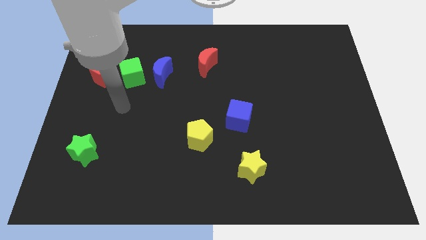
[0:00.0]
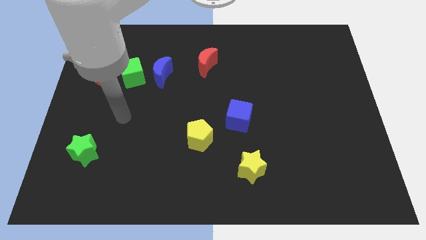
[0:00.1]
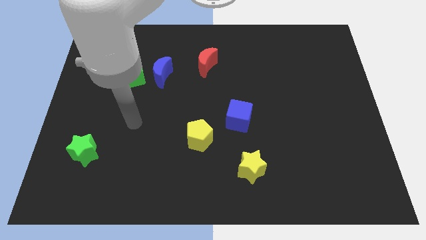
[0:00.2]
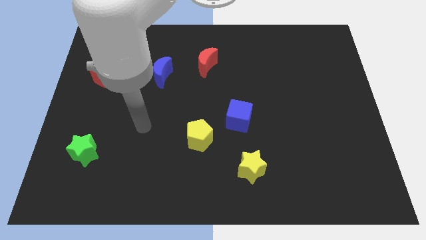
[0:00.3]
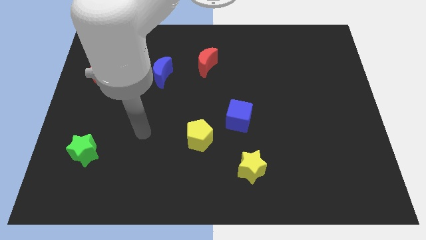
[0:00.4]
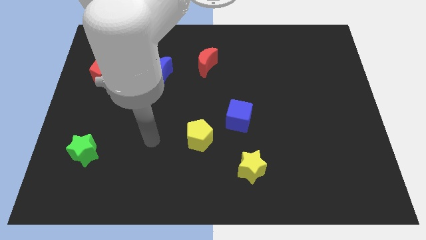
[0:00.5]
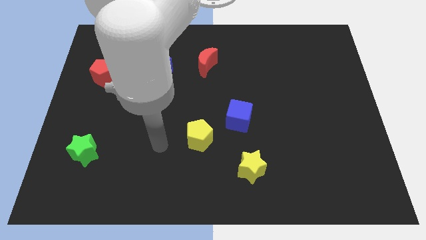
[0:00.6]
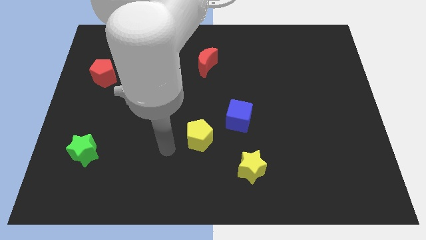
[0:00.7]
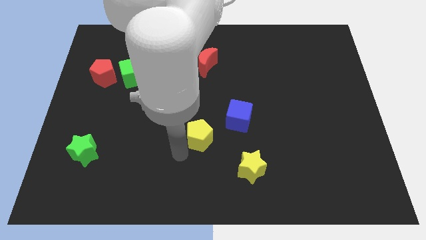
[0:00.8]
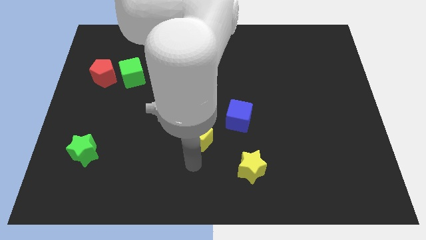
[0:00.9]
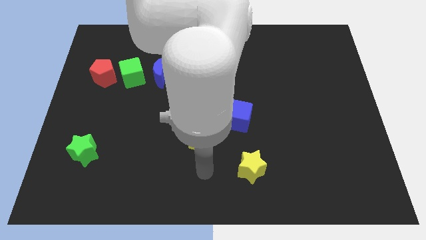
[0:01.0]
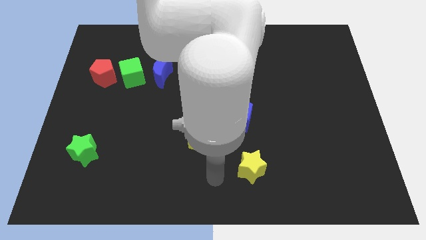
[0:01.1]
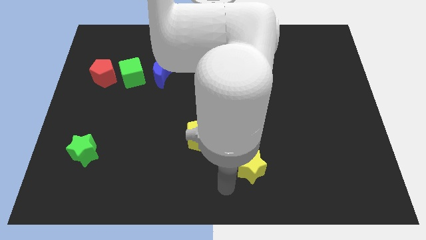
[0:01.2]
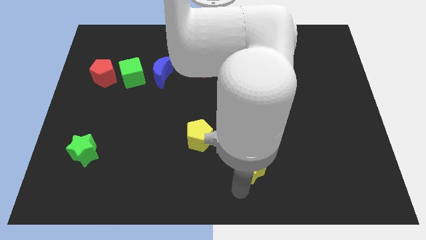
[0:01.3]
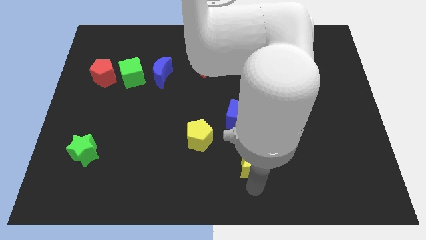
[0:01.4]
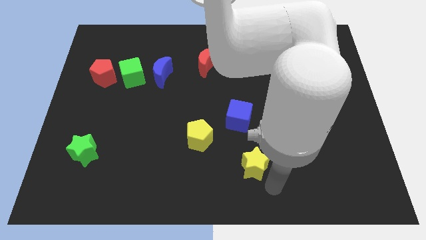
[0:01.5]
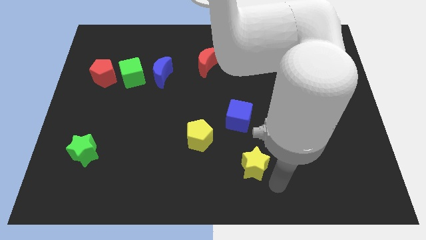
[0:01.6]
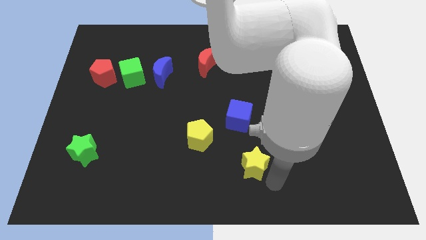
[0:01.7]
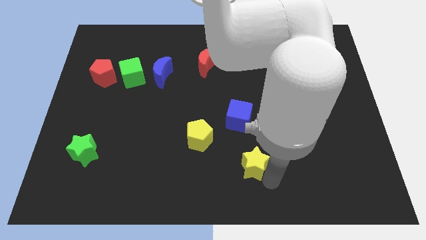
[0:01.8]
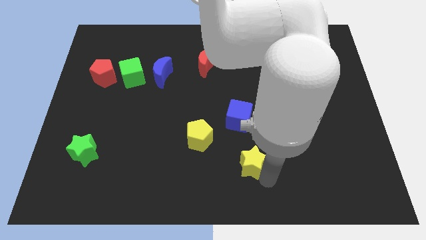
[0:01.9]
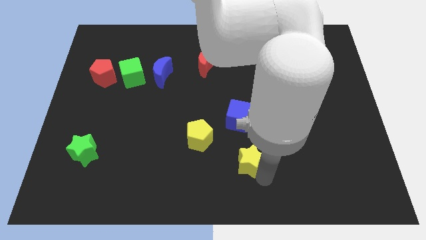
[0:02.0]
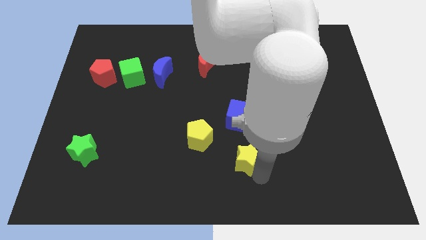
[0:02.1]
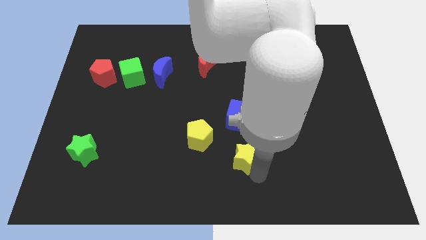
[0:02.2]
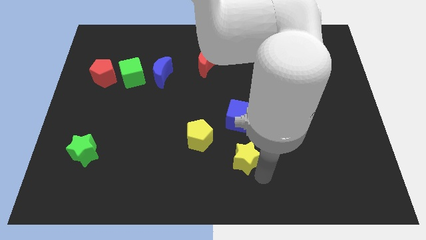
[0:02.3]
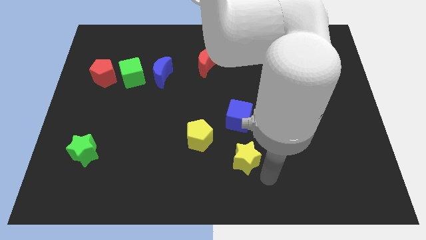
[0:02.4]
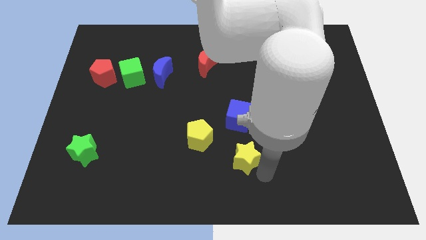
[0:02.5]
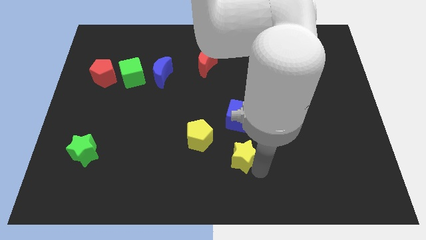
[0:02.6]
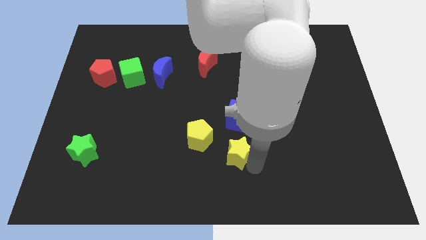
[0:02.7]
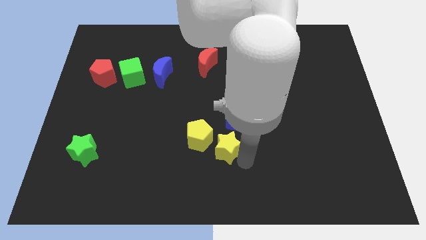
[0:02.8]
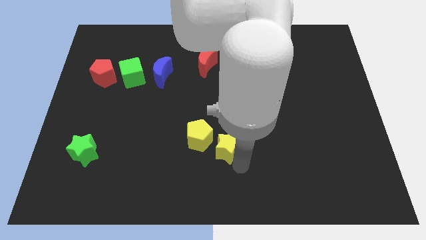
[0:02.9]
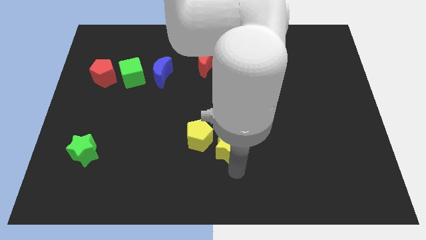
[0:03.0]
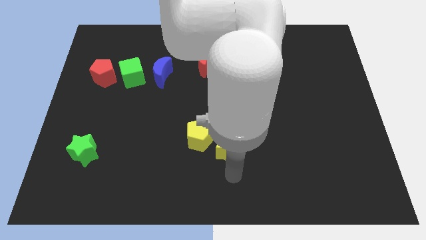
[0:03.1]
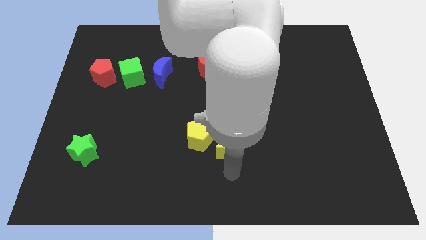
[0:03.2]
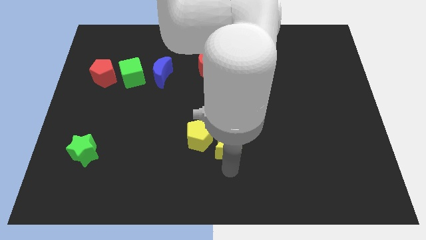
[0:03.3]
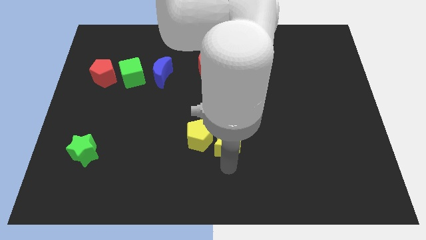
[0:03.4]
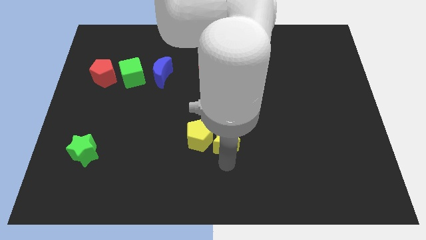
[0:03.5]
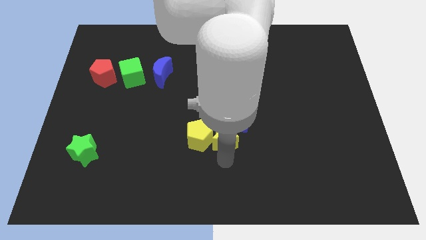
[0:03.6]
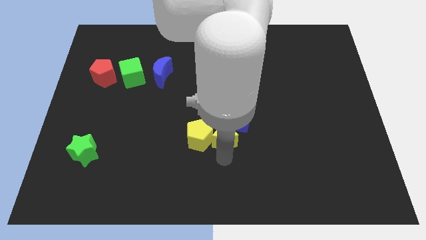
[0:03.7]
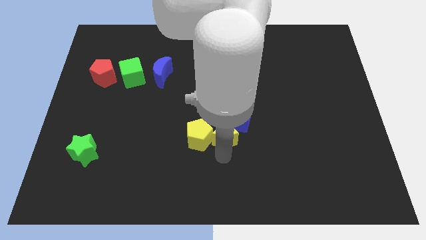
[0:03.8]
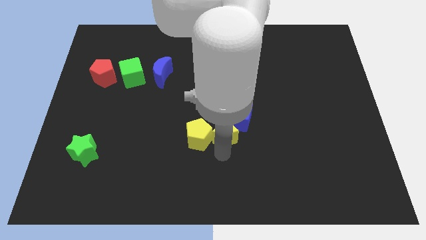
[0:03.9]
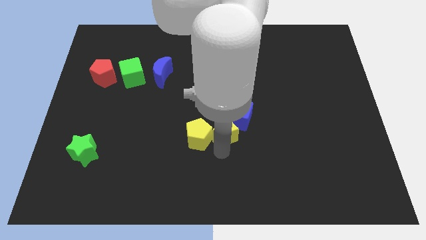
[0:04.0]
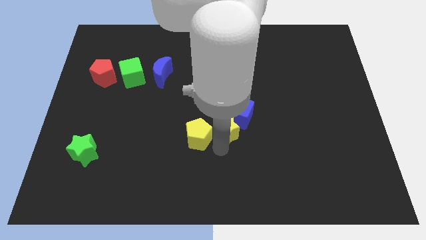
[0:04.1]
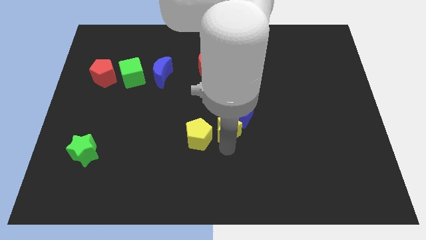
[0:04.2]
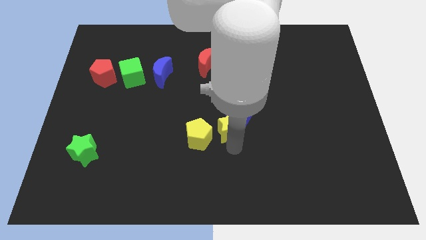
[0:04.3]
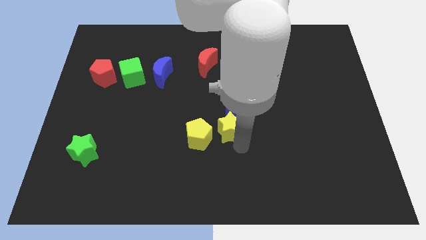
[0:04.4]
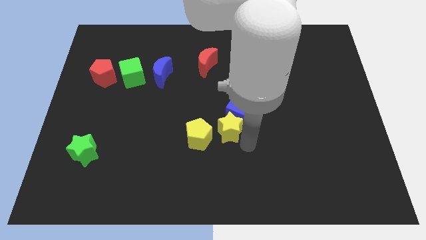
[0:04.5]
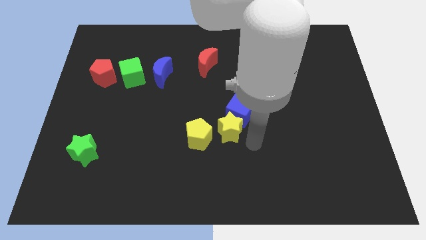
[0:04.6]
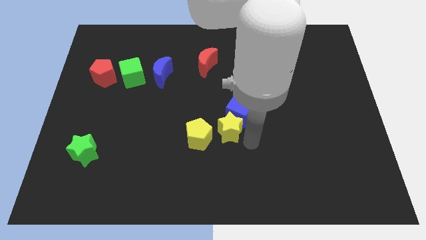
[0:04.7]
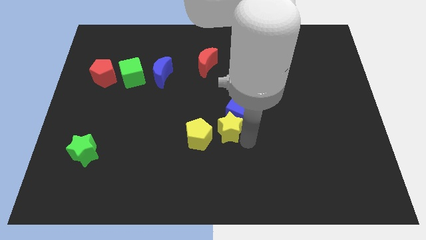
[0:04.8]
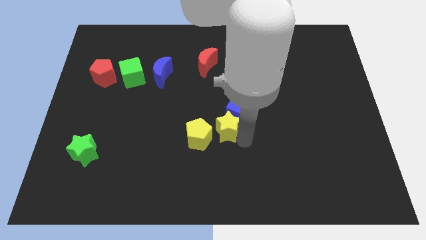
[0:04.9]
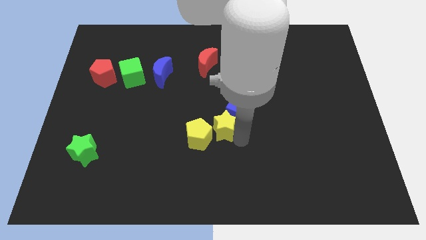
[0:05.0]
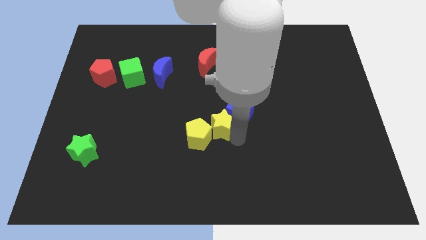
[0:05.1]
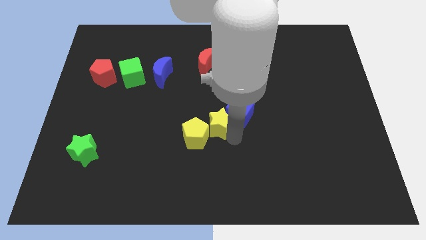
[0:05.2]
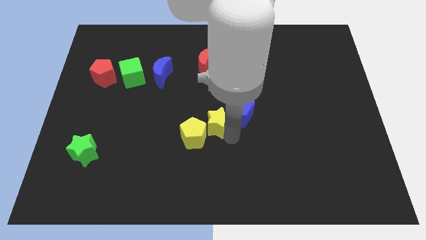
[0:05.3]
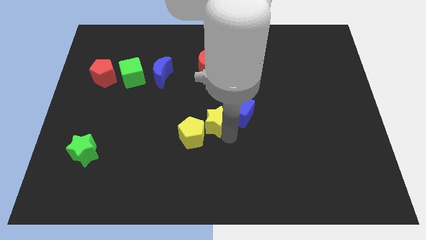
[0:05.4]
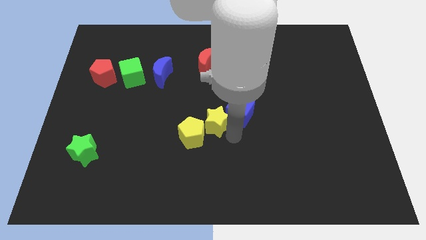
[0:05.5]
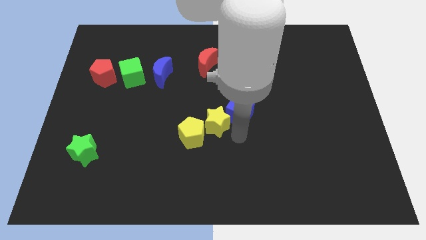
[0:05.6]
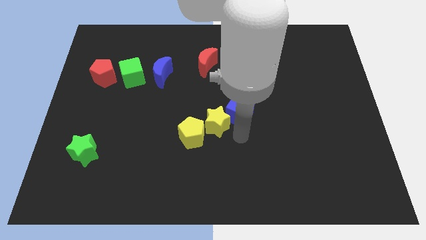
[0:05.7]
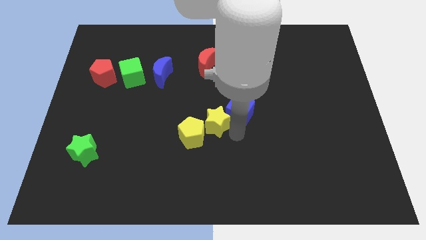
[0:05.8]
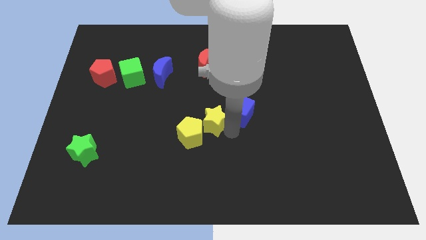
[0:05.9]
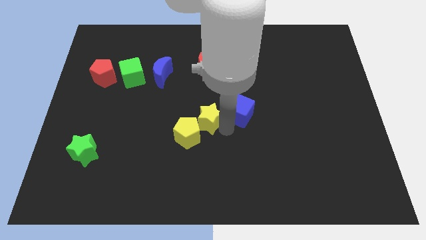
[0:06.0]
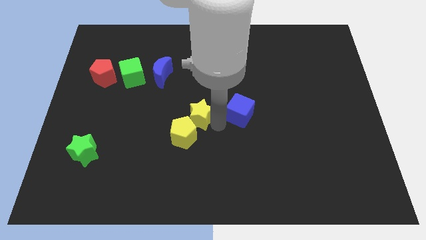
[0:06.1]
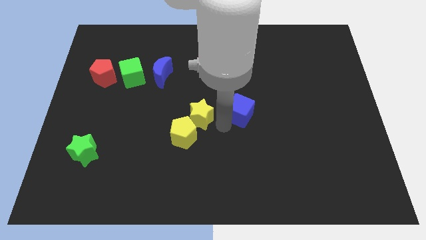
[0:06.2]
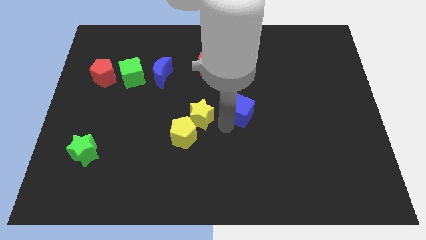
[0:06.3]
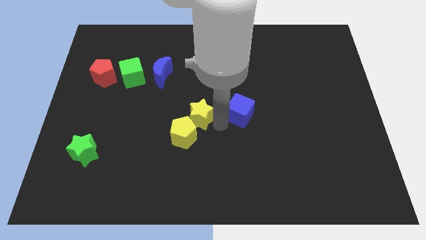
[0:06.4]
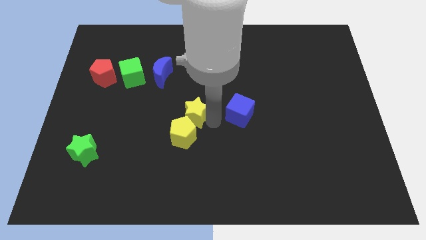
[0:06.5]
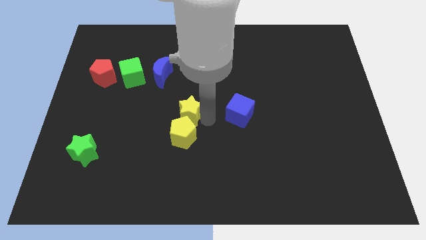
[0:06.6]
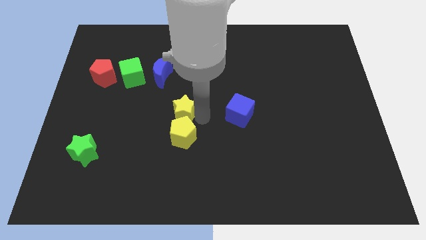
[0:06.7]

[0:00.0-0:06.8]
move the yellow star diagonally upwards and to the left

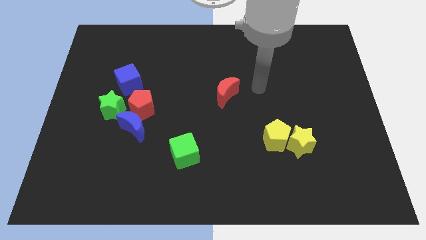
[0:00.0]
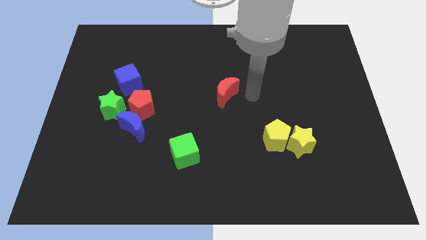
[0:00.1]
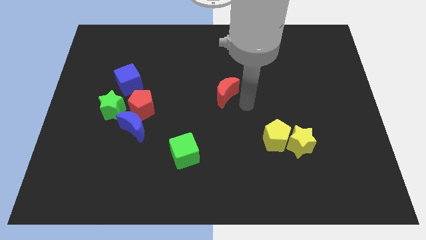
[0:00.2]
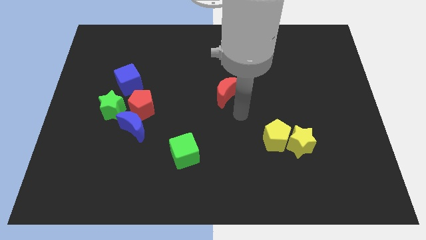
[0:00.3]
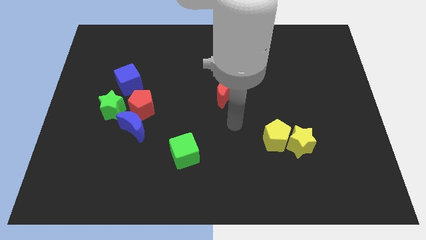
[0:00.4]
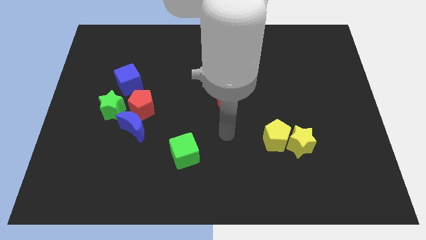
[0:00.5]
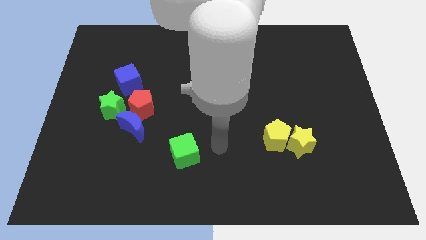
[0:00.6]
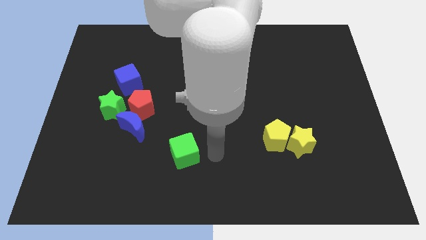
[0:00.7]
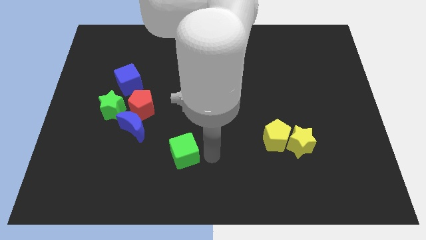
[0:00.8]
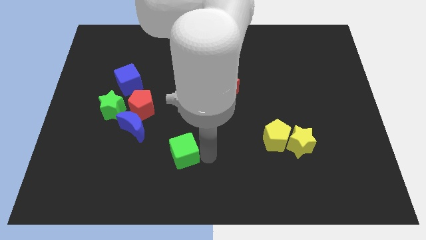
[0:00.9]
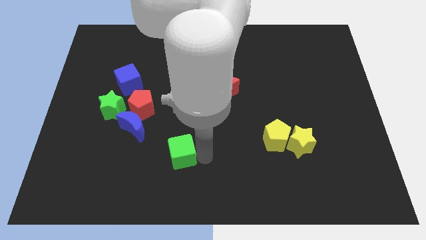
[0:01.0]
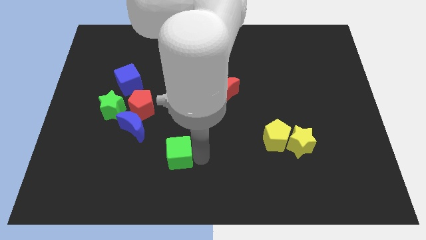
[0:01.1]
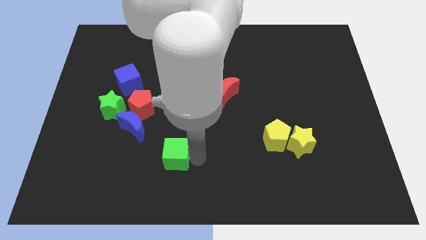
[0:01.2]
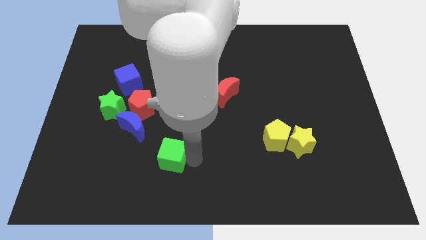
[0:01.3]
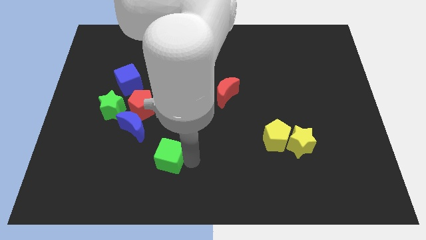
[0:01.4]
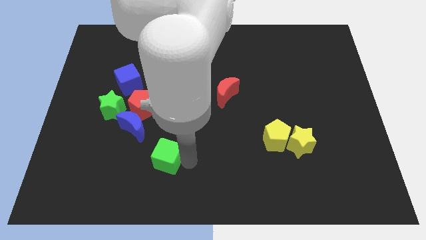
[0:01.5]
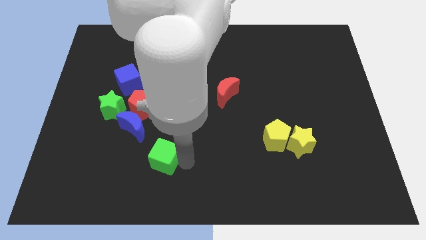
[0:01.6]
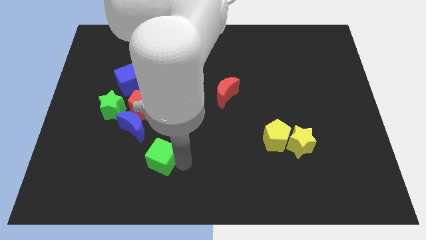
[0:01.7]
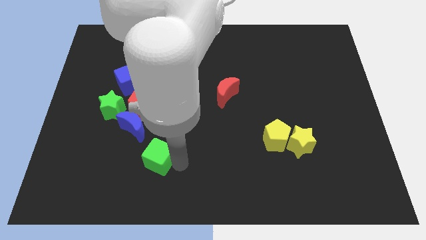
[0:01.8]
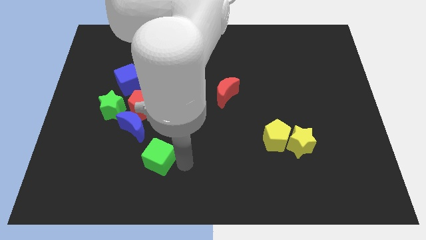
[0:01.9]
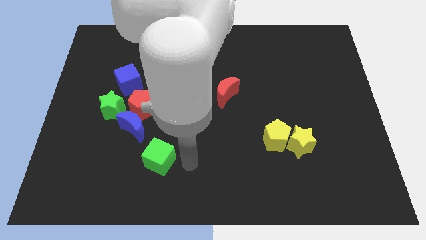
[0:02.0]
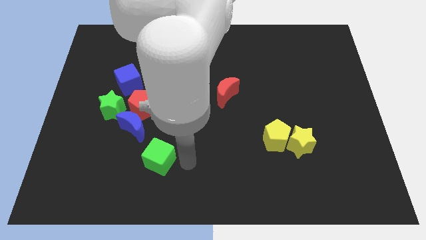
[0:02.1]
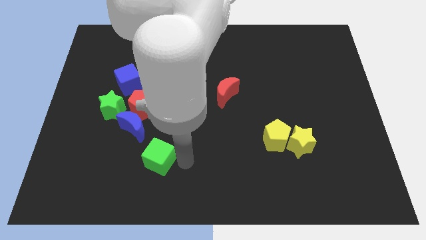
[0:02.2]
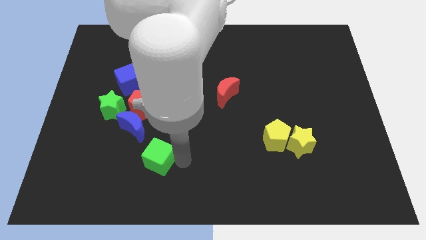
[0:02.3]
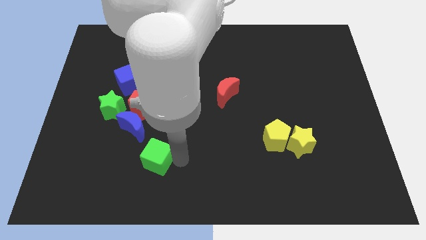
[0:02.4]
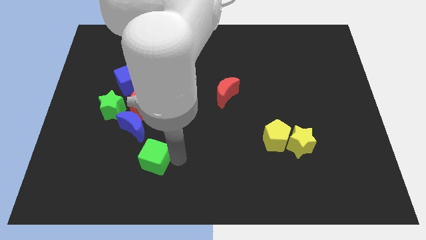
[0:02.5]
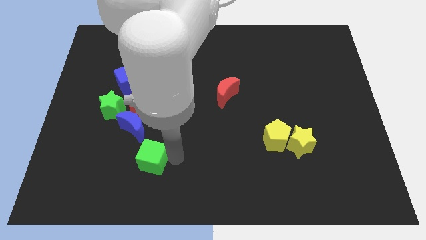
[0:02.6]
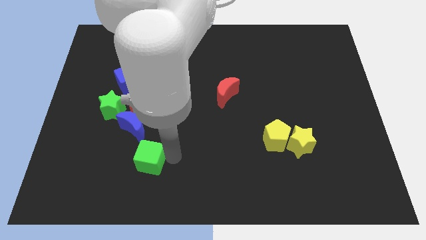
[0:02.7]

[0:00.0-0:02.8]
slightly push the green cube left
